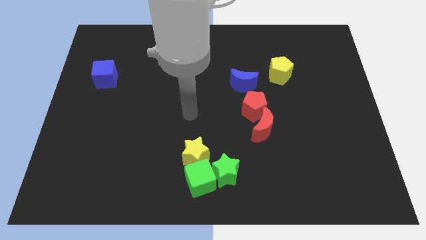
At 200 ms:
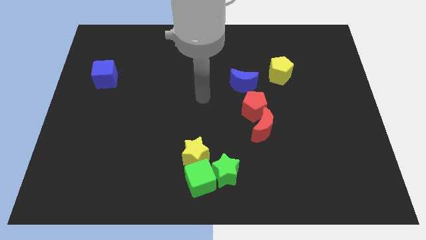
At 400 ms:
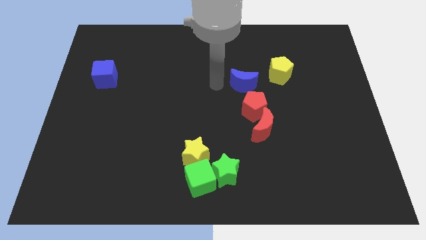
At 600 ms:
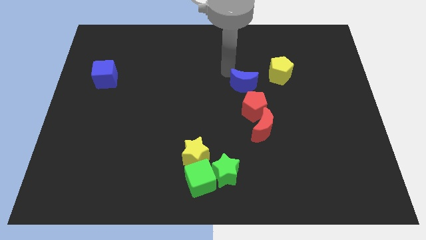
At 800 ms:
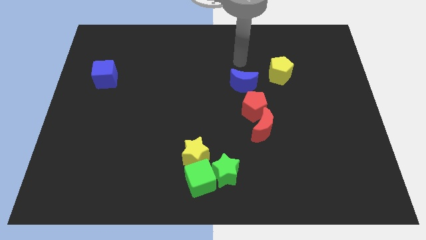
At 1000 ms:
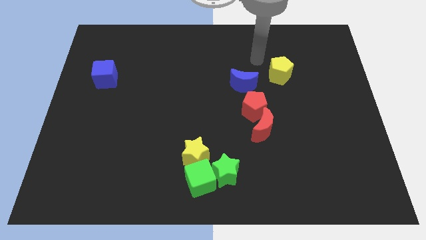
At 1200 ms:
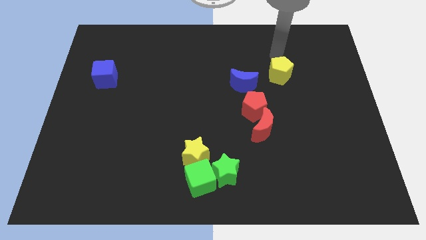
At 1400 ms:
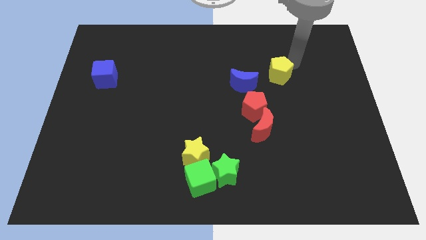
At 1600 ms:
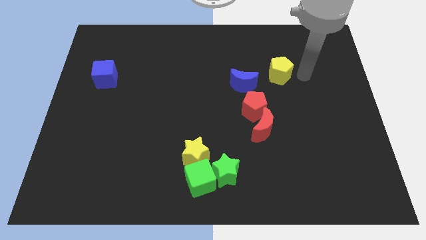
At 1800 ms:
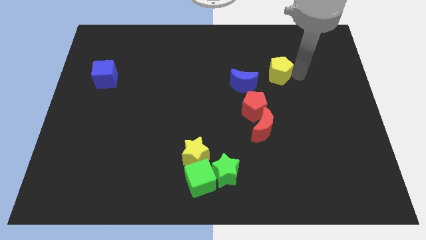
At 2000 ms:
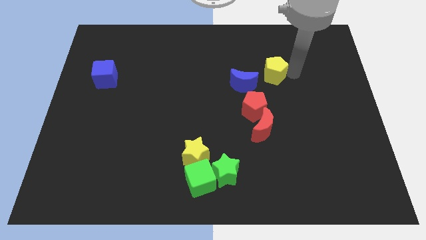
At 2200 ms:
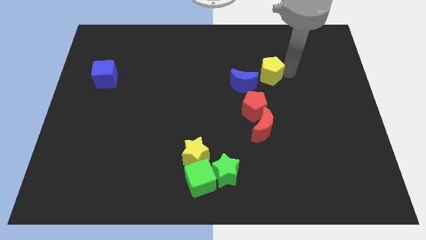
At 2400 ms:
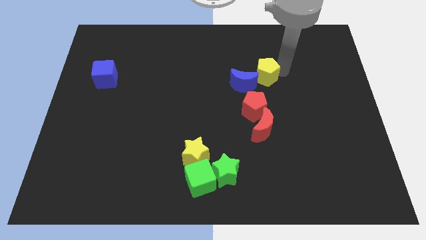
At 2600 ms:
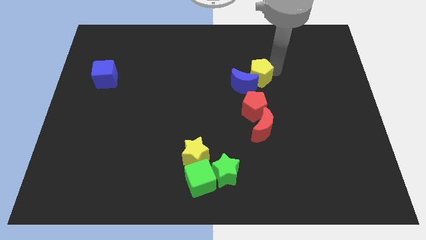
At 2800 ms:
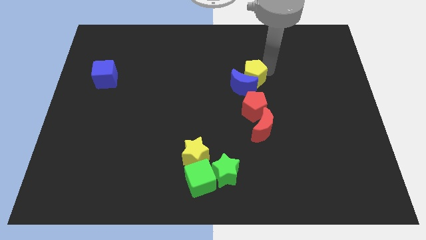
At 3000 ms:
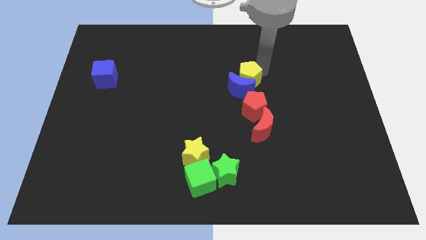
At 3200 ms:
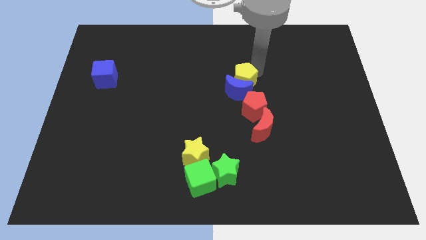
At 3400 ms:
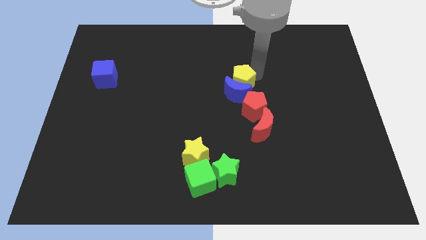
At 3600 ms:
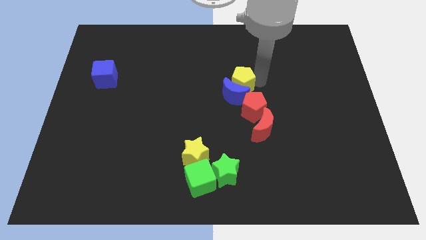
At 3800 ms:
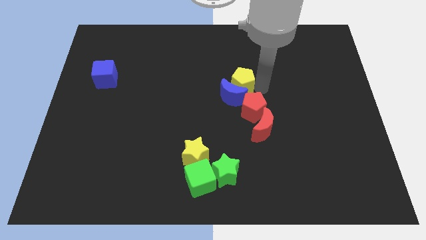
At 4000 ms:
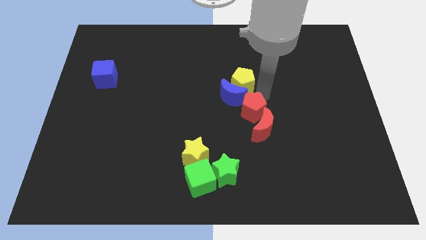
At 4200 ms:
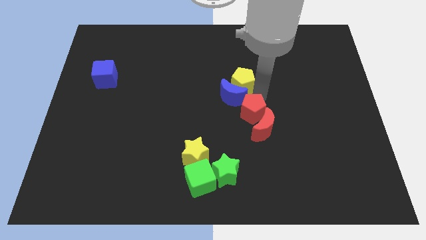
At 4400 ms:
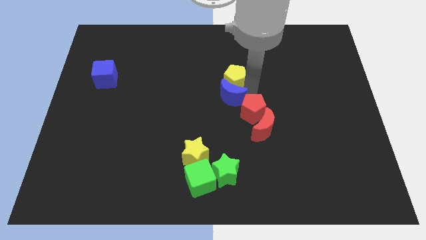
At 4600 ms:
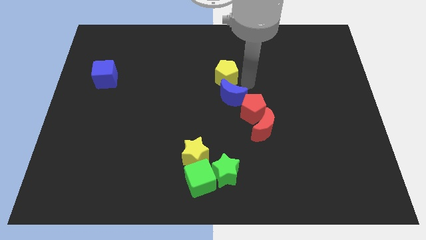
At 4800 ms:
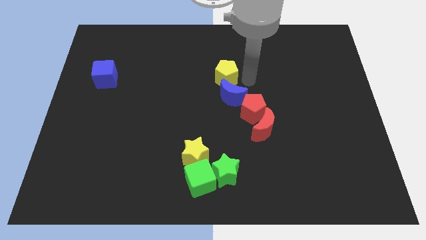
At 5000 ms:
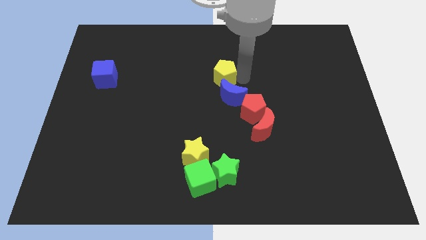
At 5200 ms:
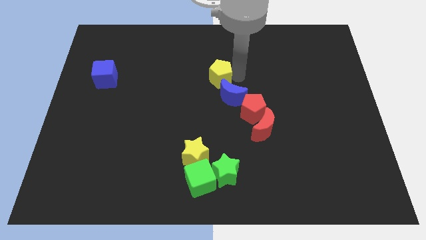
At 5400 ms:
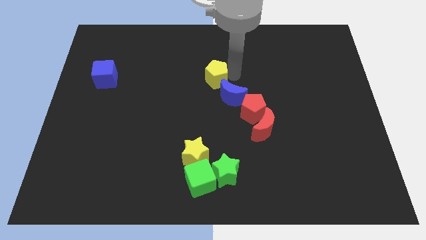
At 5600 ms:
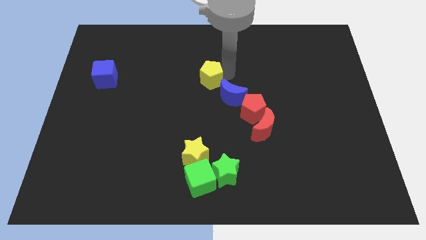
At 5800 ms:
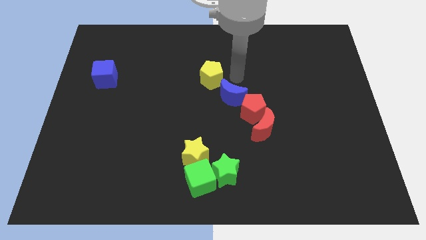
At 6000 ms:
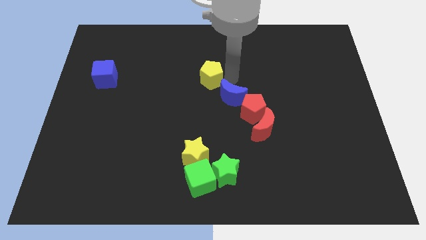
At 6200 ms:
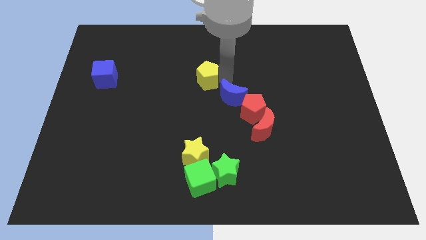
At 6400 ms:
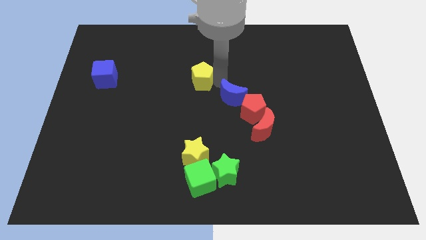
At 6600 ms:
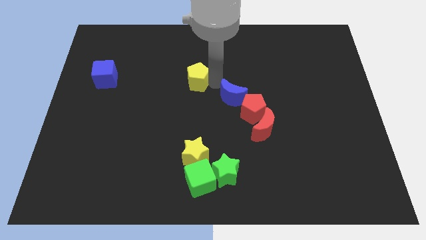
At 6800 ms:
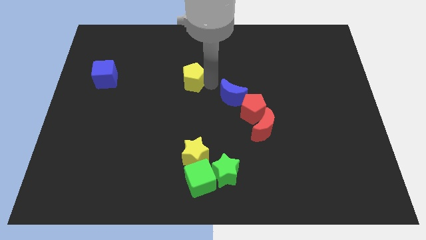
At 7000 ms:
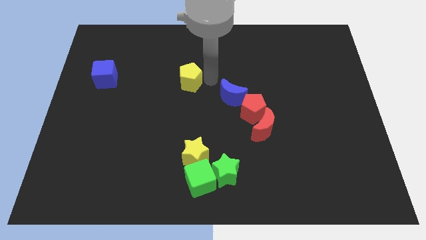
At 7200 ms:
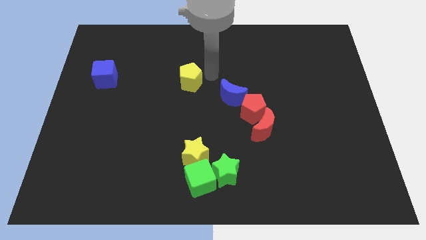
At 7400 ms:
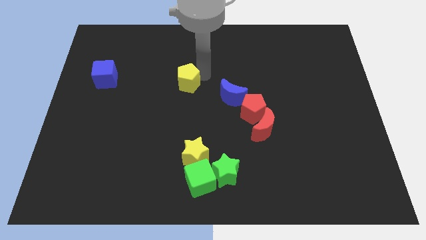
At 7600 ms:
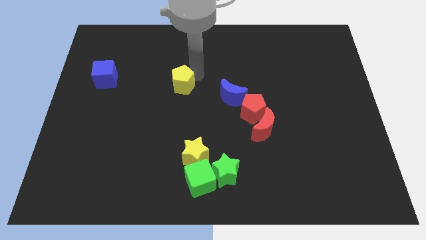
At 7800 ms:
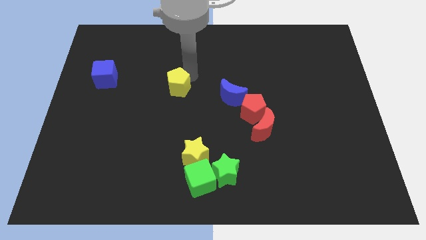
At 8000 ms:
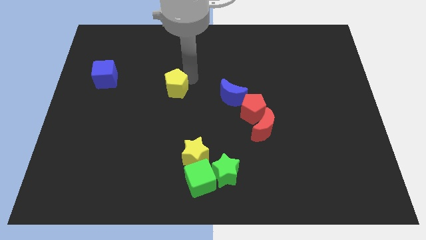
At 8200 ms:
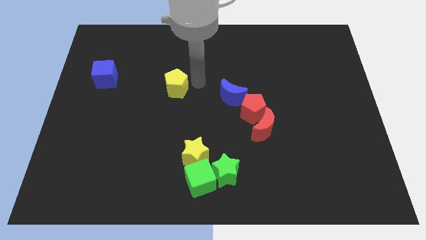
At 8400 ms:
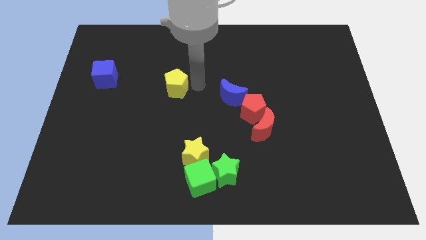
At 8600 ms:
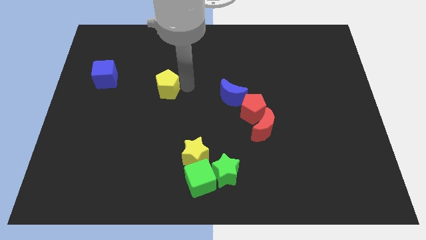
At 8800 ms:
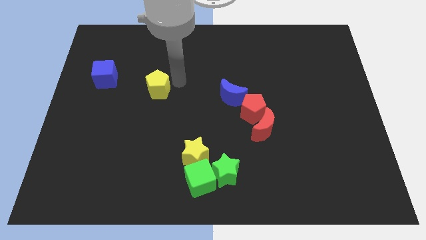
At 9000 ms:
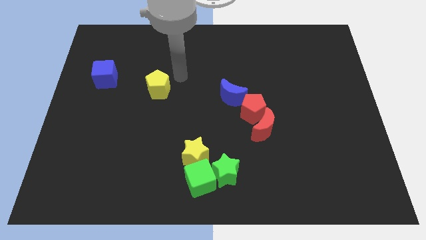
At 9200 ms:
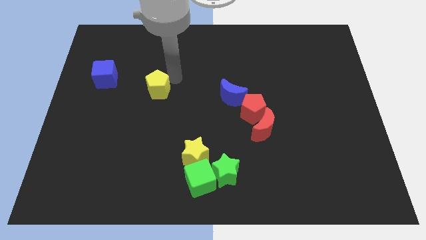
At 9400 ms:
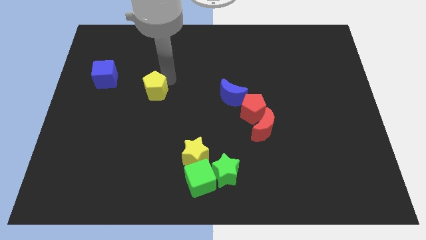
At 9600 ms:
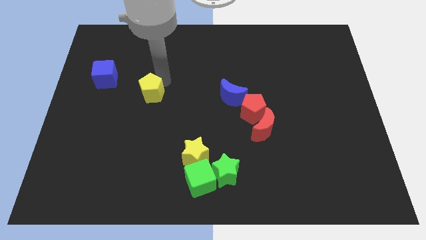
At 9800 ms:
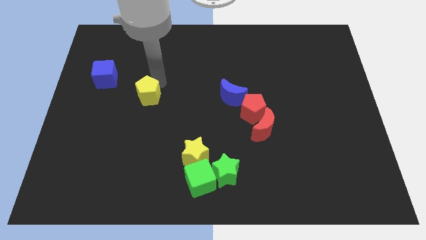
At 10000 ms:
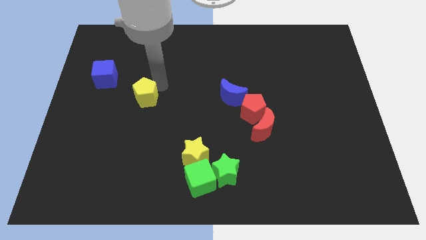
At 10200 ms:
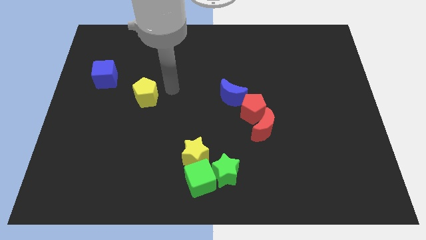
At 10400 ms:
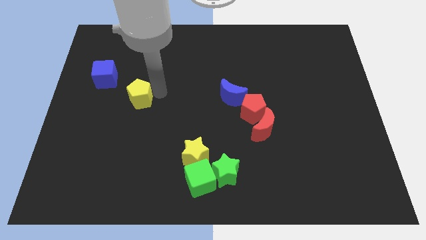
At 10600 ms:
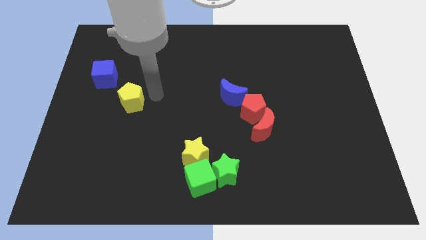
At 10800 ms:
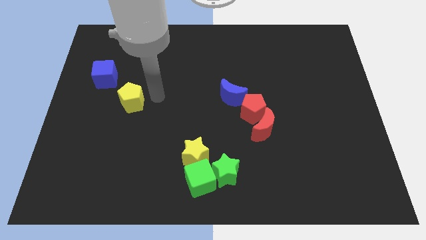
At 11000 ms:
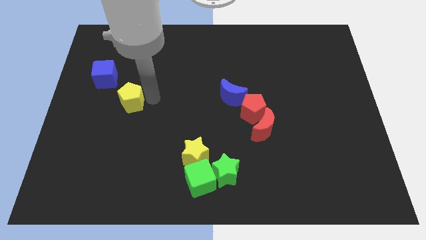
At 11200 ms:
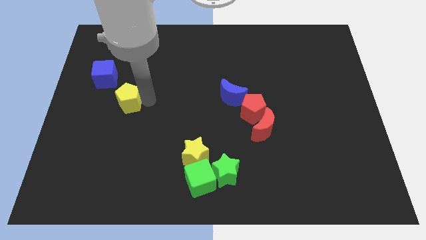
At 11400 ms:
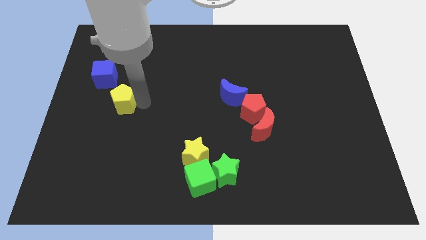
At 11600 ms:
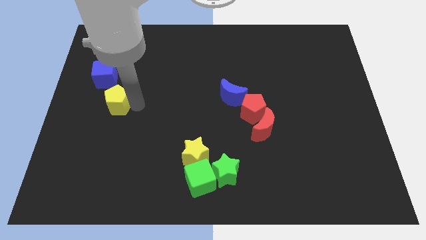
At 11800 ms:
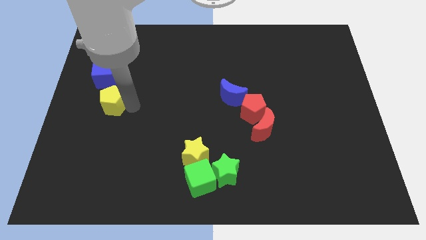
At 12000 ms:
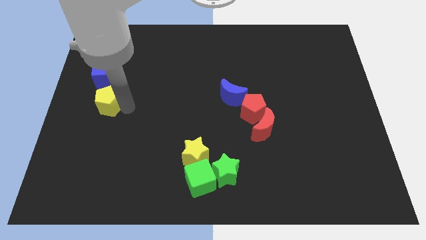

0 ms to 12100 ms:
move the yellow pentagon to the left side of the board

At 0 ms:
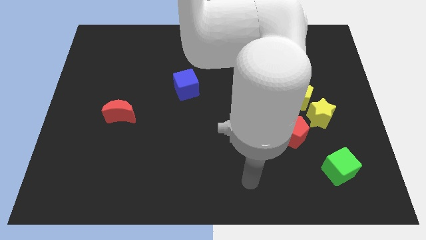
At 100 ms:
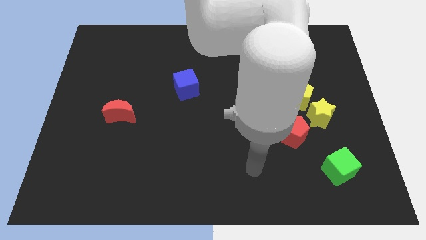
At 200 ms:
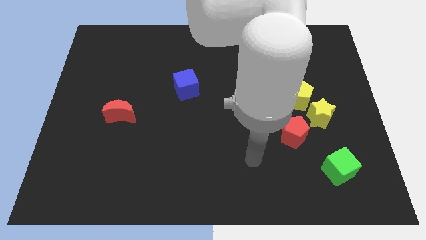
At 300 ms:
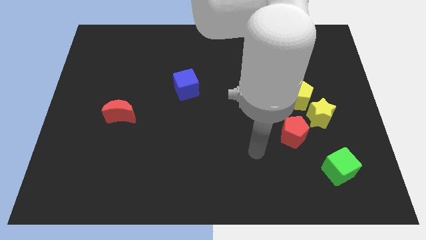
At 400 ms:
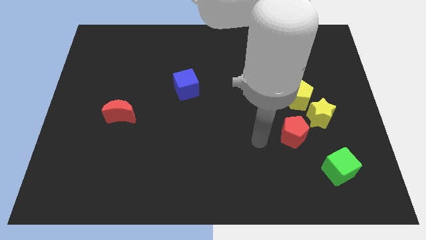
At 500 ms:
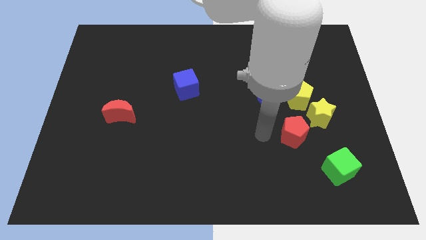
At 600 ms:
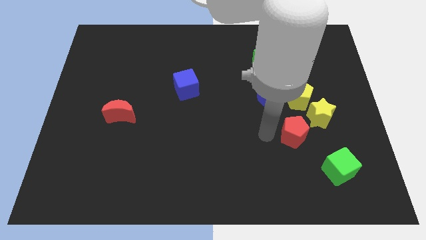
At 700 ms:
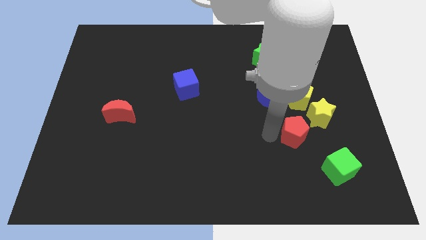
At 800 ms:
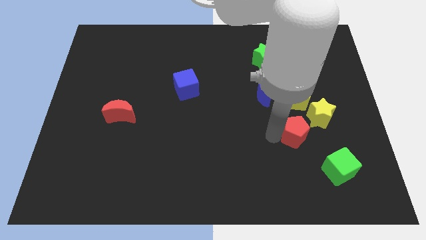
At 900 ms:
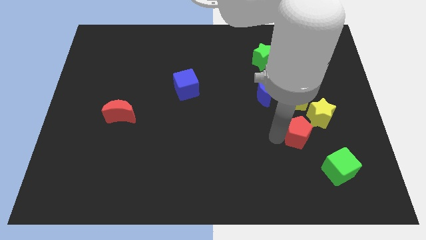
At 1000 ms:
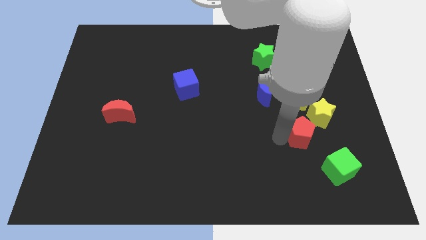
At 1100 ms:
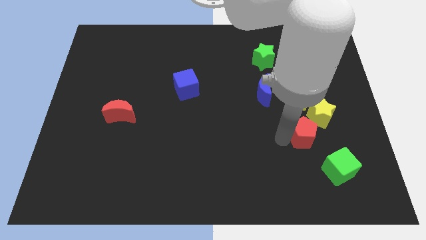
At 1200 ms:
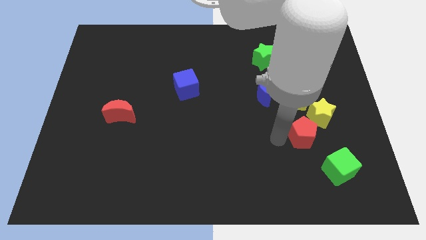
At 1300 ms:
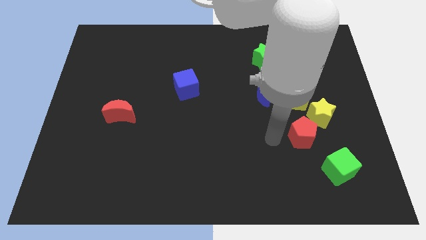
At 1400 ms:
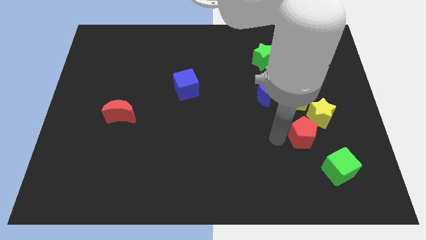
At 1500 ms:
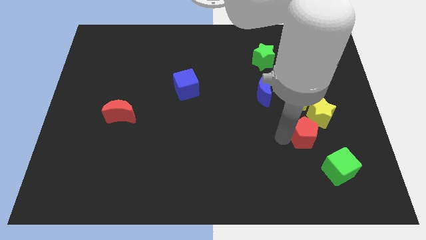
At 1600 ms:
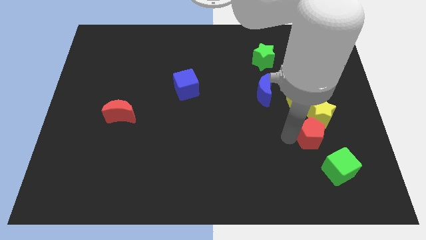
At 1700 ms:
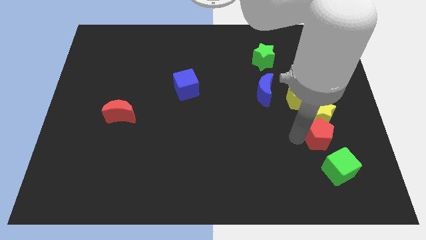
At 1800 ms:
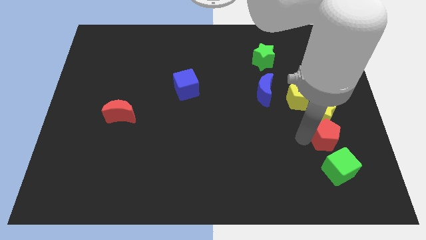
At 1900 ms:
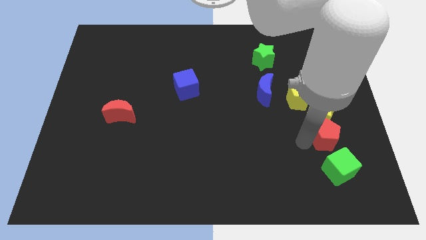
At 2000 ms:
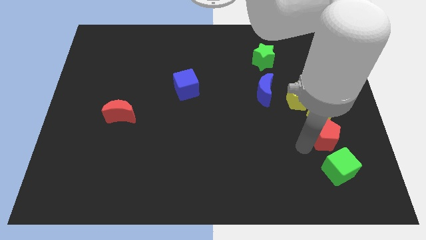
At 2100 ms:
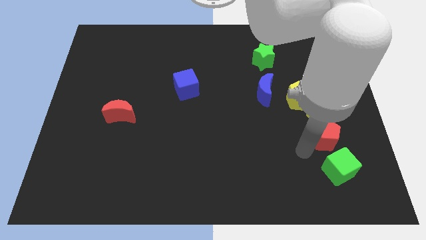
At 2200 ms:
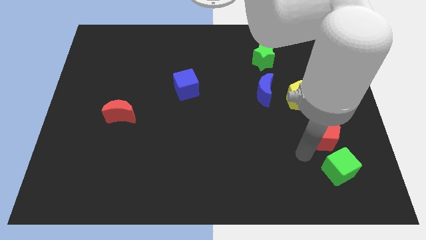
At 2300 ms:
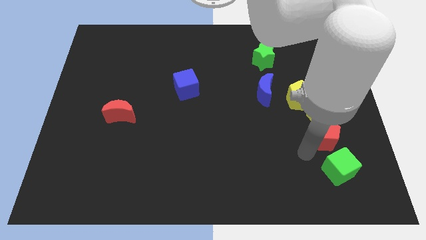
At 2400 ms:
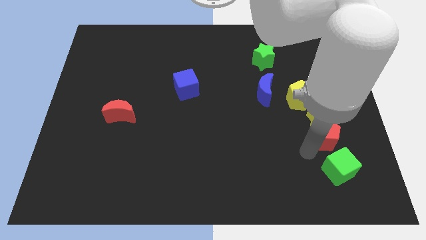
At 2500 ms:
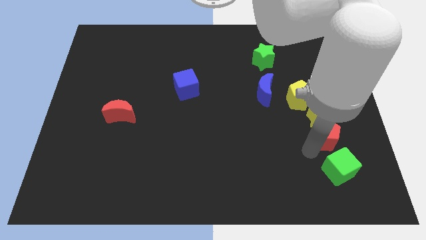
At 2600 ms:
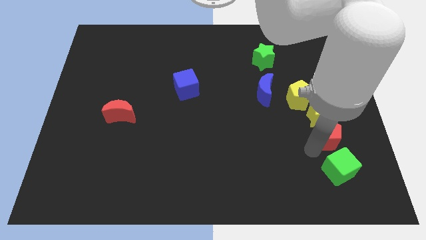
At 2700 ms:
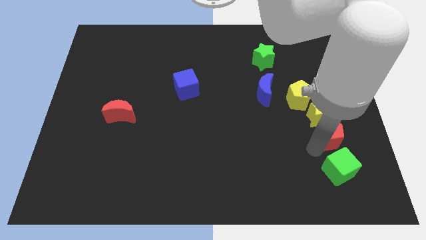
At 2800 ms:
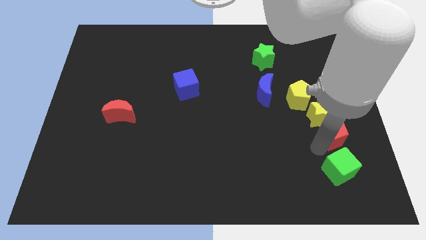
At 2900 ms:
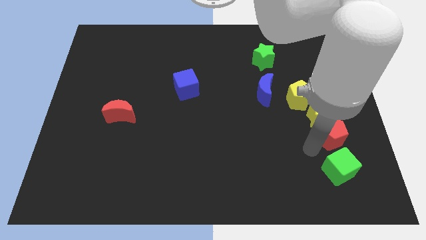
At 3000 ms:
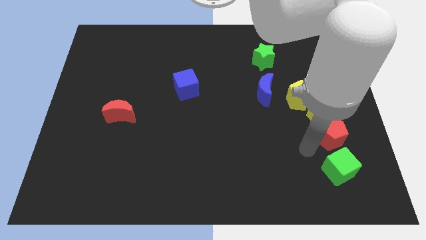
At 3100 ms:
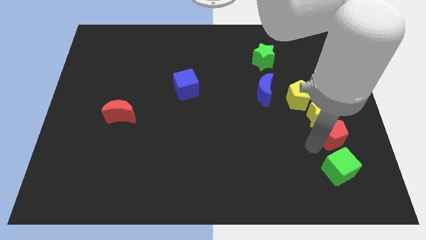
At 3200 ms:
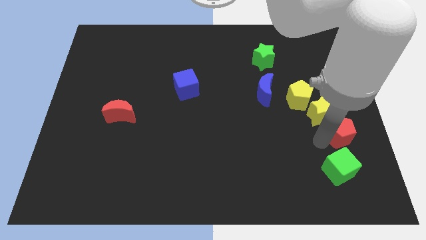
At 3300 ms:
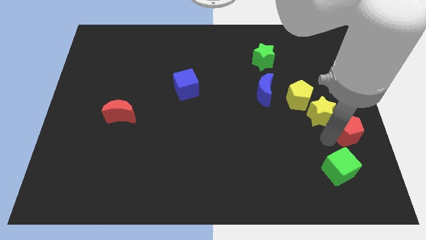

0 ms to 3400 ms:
slide the red pentagon to the center right
